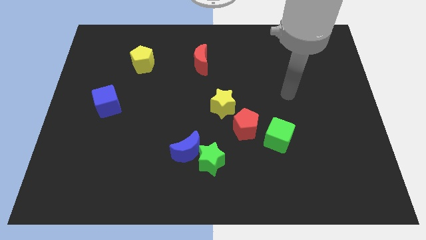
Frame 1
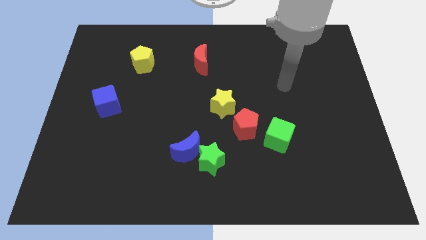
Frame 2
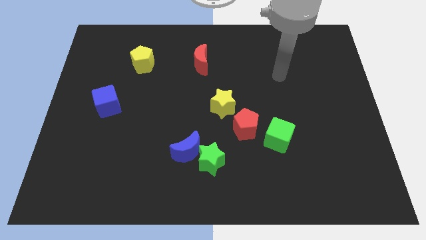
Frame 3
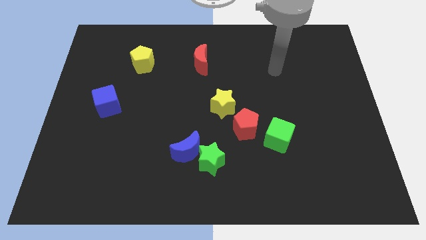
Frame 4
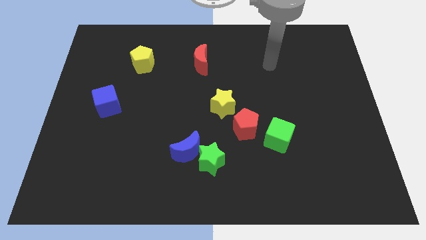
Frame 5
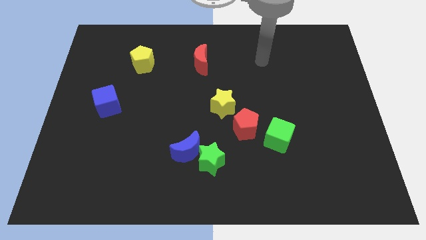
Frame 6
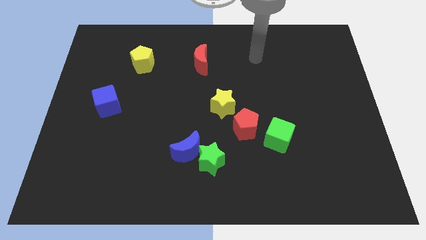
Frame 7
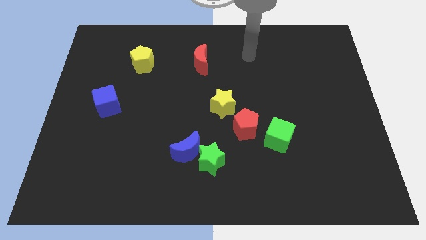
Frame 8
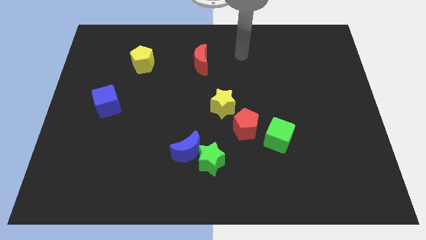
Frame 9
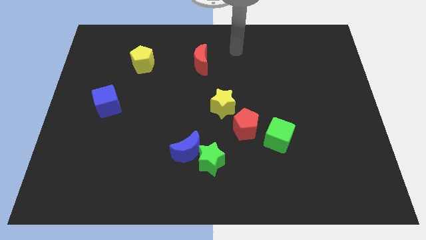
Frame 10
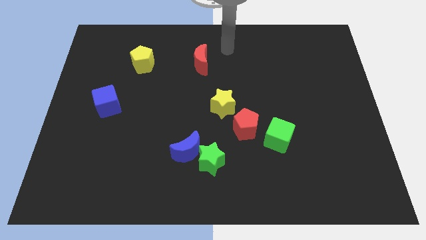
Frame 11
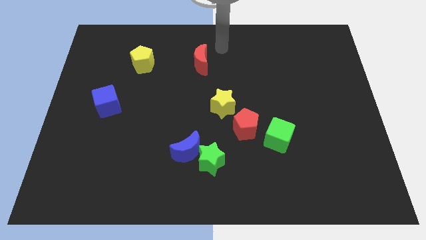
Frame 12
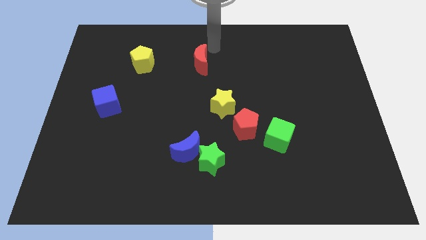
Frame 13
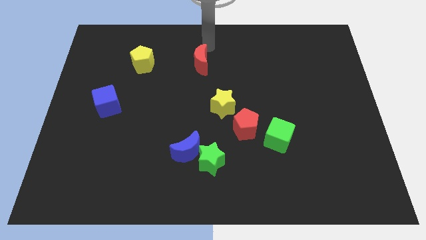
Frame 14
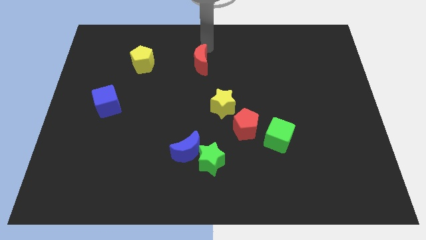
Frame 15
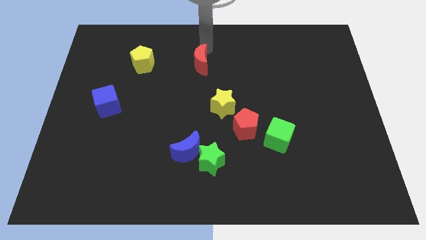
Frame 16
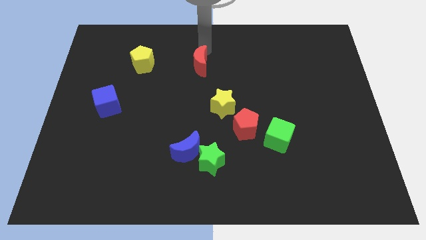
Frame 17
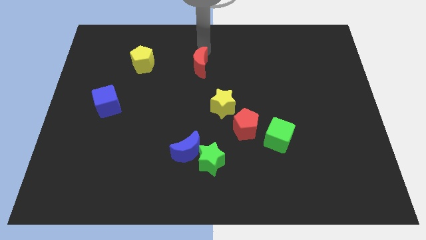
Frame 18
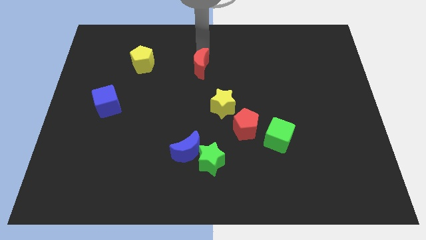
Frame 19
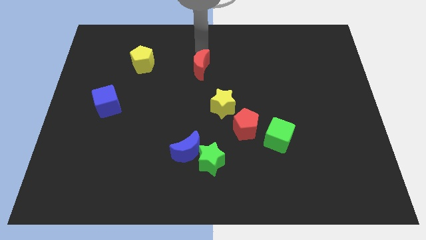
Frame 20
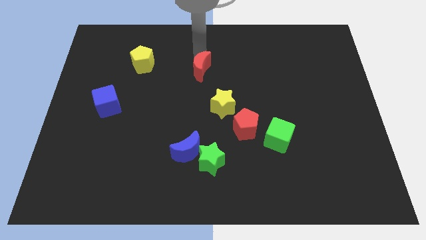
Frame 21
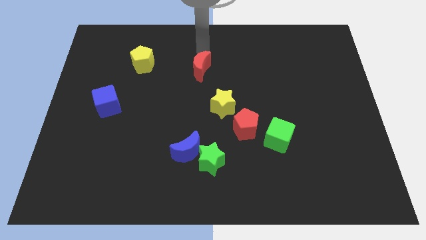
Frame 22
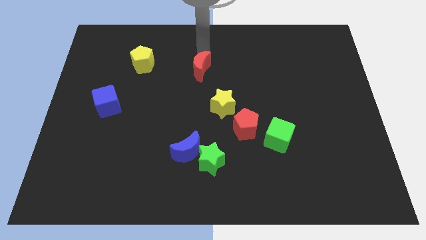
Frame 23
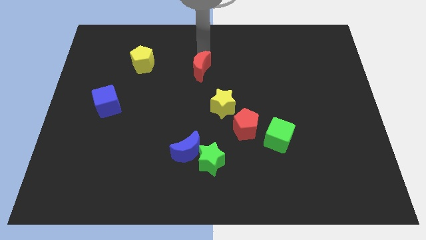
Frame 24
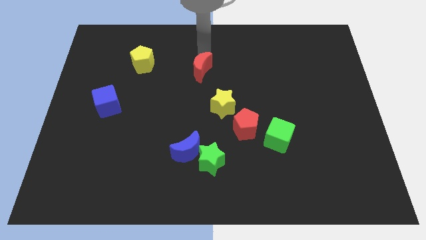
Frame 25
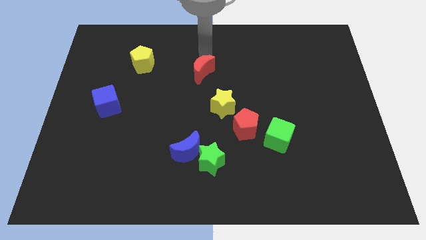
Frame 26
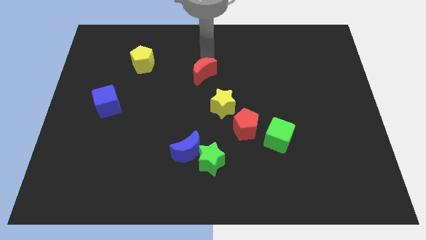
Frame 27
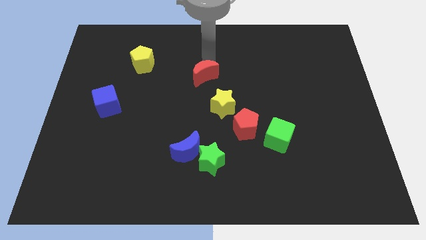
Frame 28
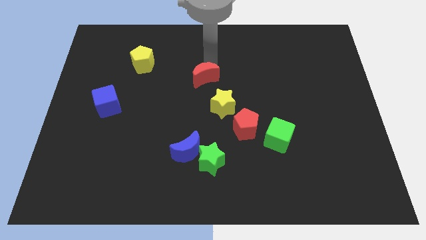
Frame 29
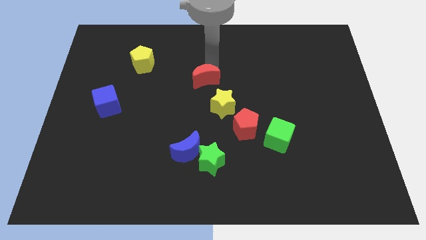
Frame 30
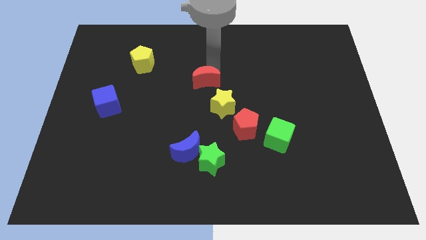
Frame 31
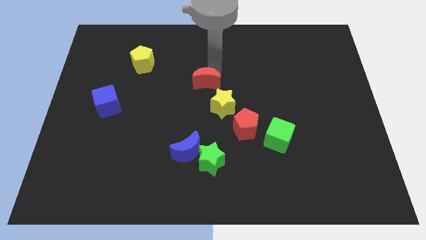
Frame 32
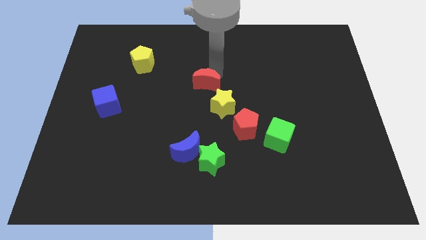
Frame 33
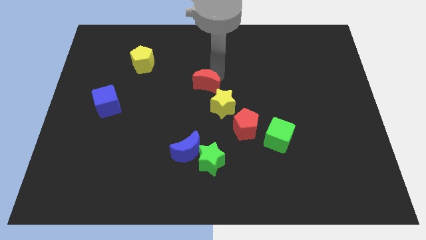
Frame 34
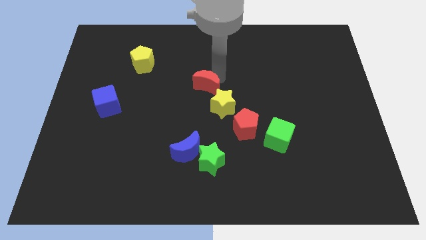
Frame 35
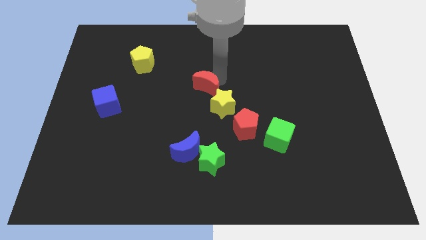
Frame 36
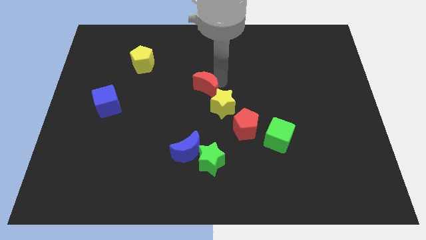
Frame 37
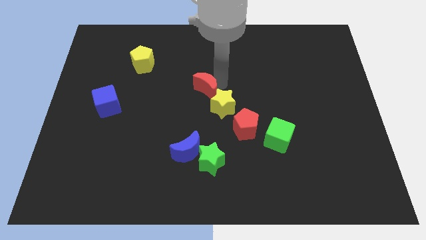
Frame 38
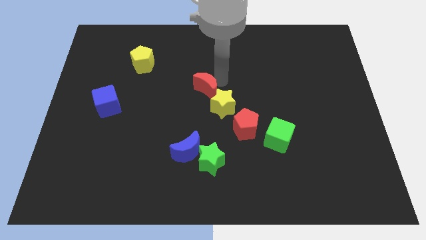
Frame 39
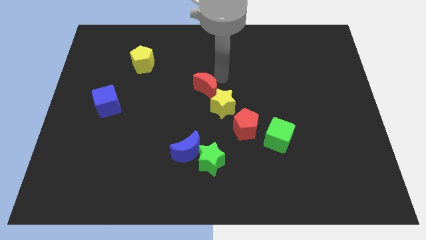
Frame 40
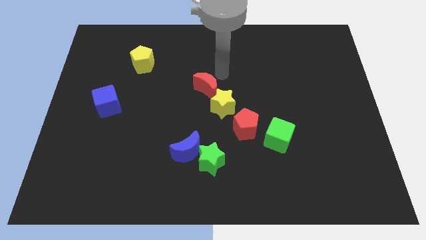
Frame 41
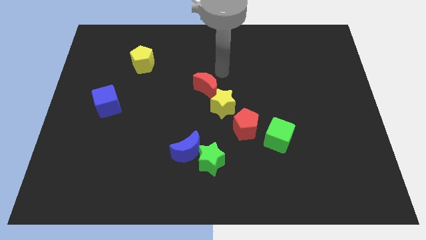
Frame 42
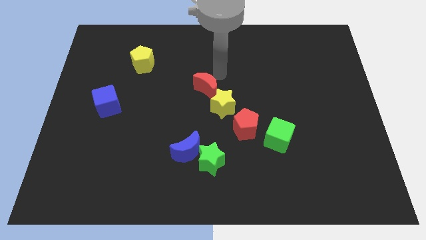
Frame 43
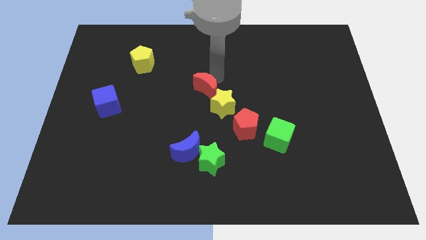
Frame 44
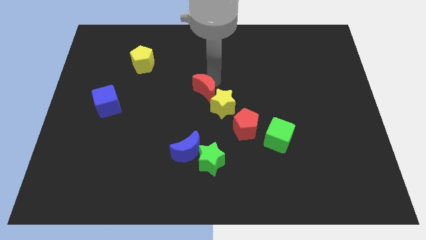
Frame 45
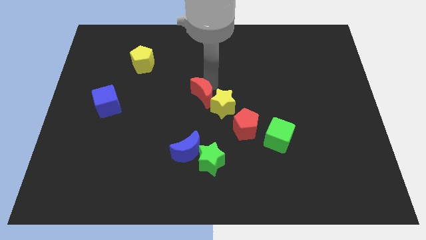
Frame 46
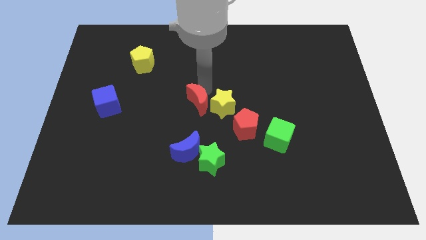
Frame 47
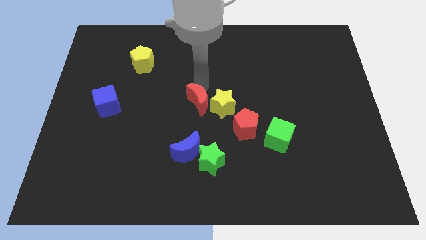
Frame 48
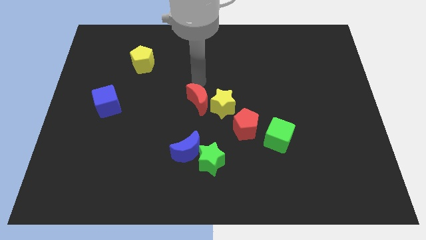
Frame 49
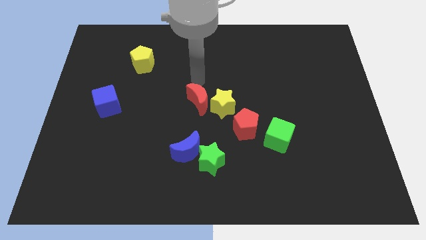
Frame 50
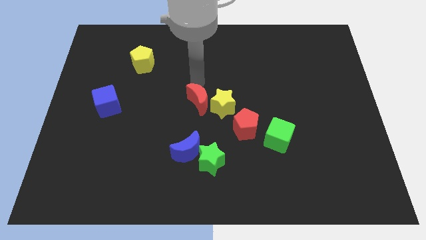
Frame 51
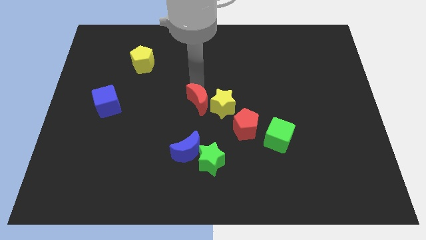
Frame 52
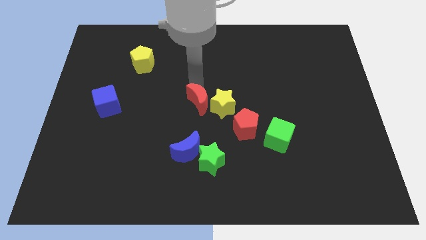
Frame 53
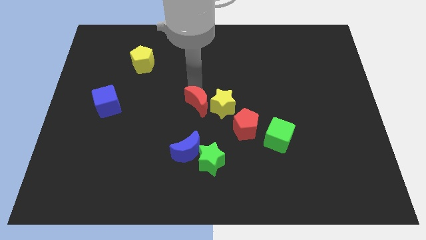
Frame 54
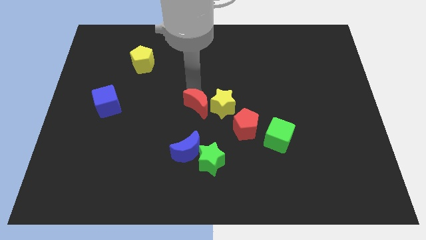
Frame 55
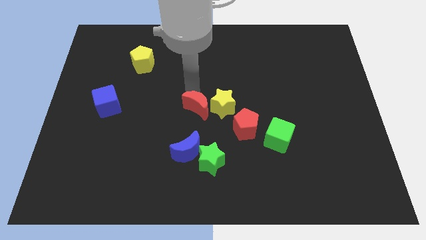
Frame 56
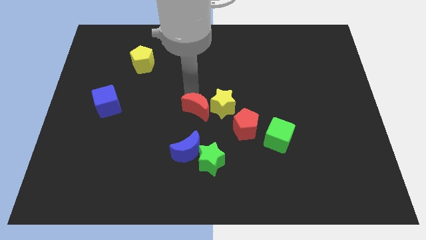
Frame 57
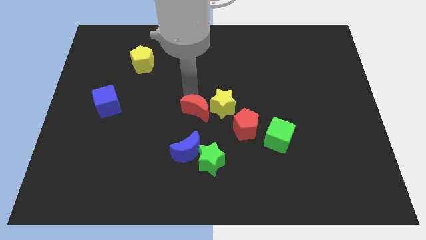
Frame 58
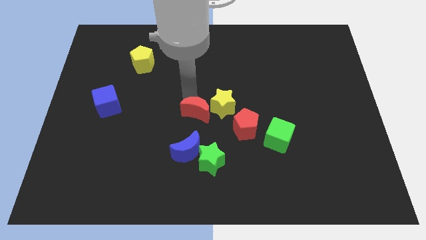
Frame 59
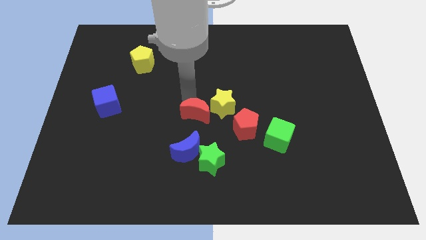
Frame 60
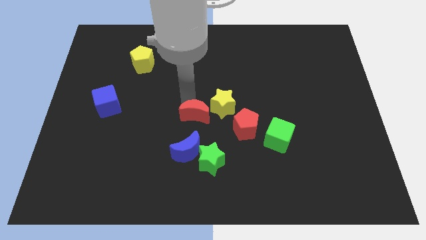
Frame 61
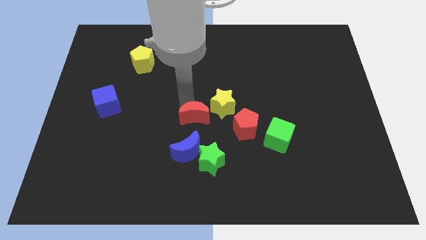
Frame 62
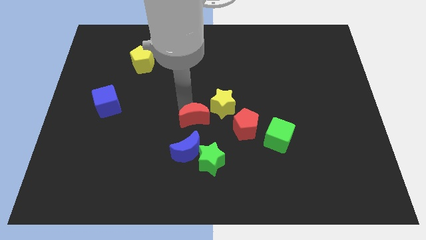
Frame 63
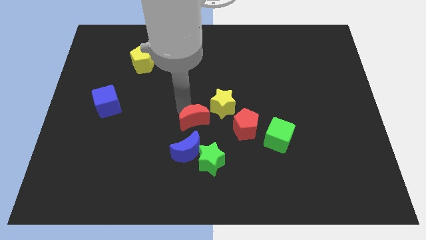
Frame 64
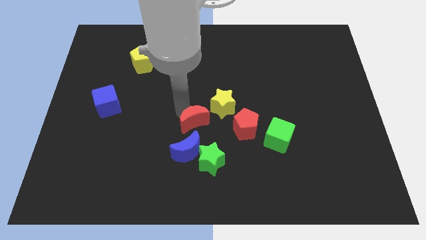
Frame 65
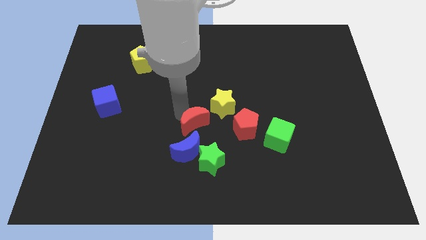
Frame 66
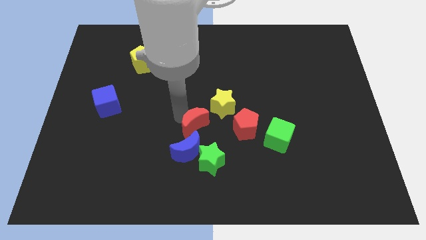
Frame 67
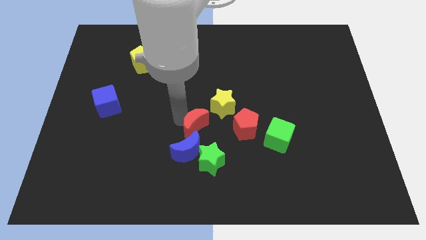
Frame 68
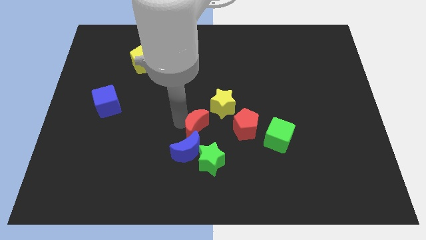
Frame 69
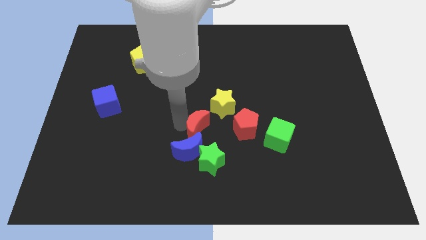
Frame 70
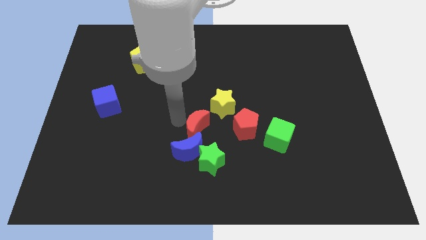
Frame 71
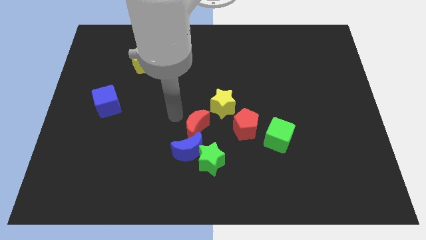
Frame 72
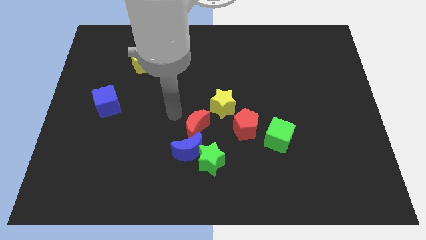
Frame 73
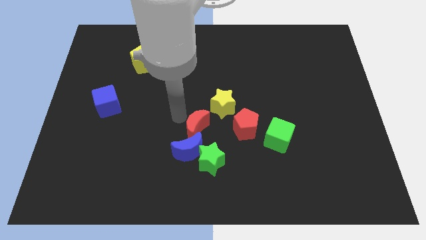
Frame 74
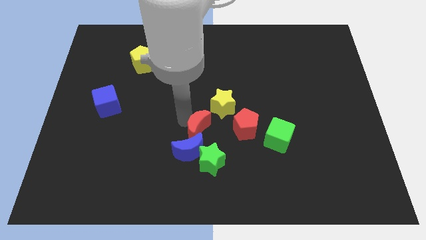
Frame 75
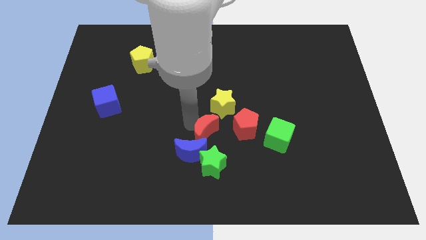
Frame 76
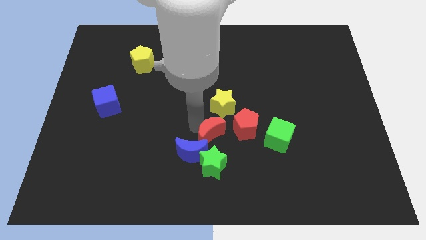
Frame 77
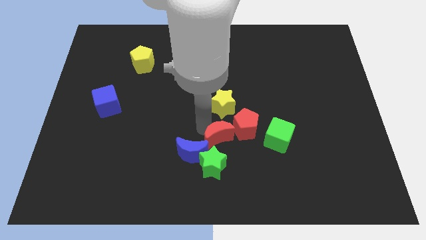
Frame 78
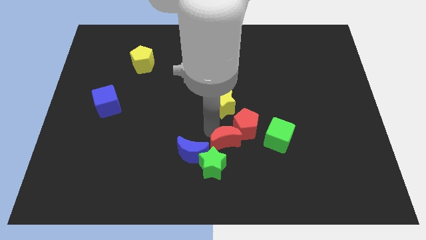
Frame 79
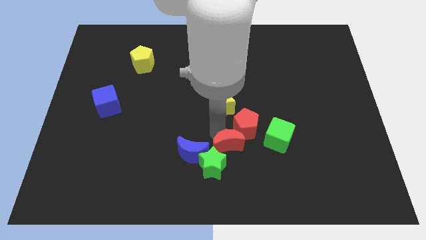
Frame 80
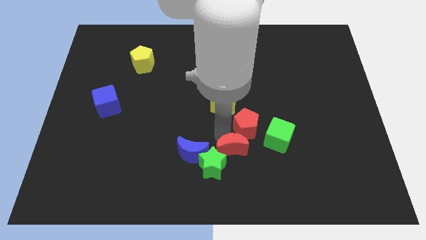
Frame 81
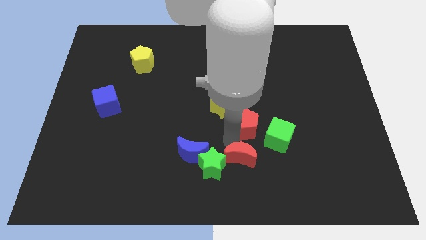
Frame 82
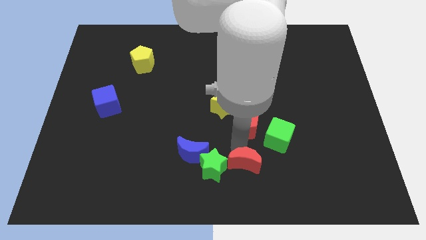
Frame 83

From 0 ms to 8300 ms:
move the red moon to the bottom side
